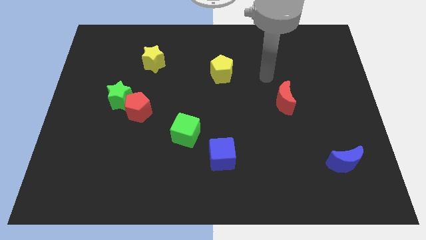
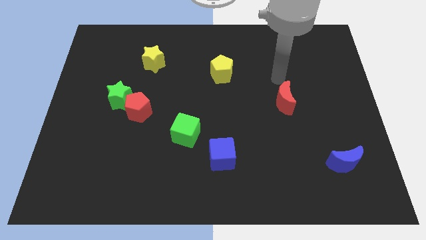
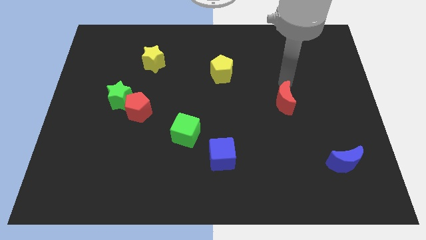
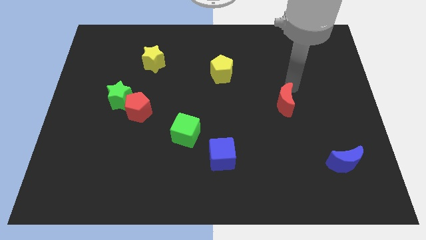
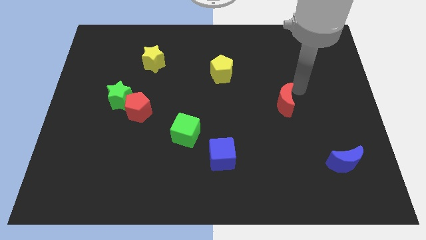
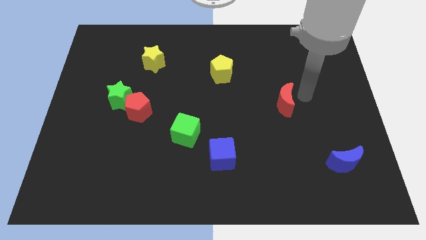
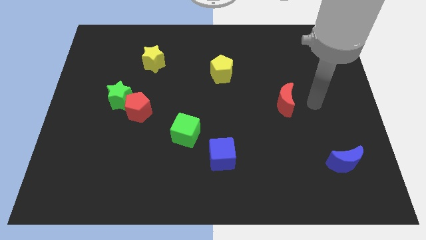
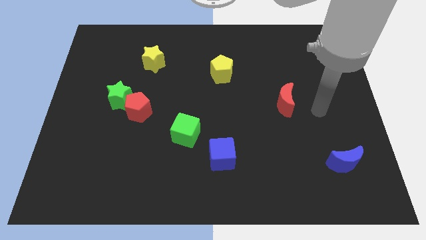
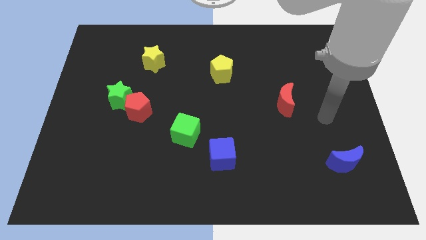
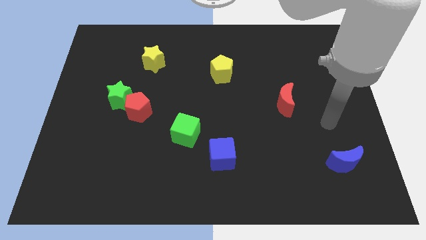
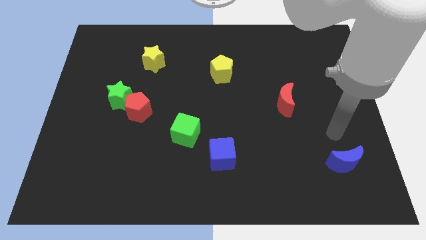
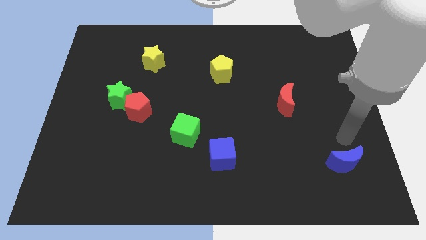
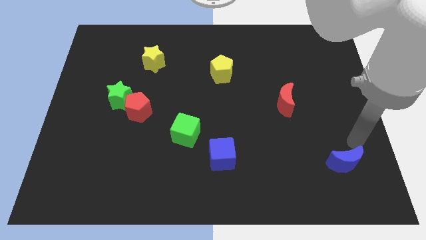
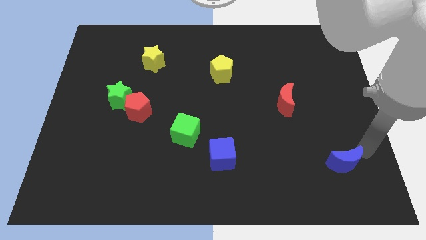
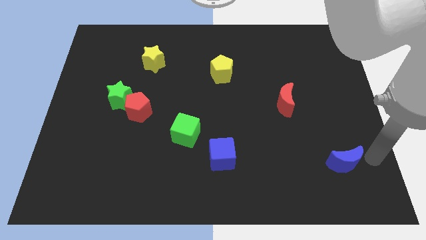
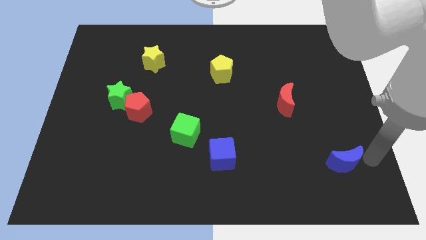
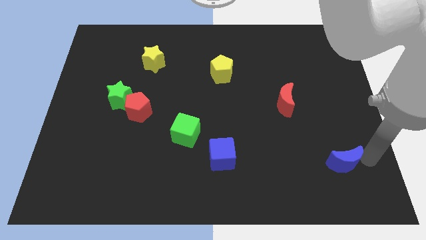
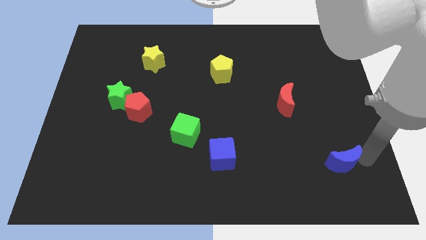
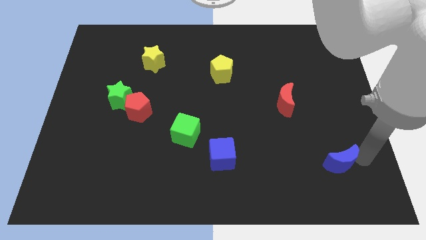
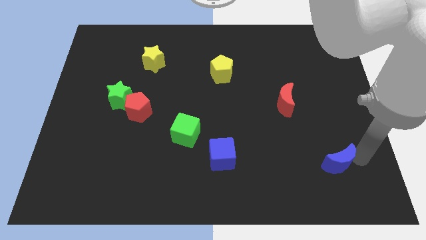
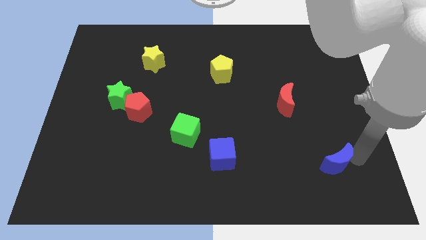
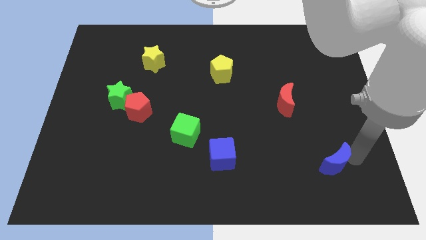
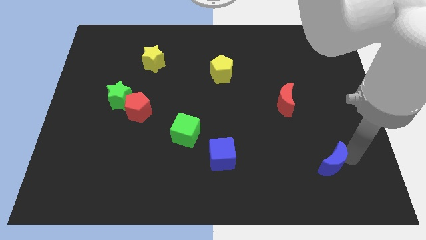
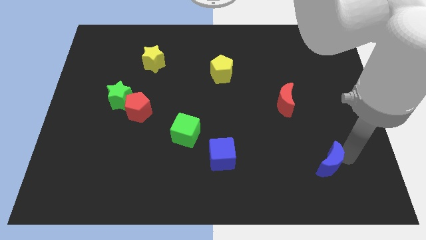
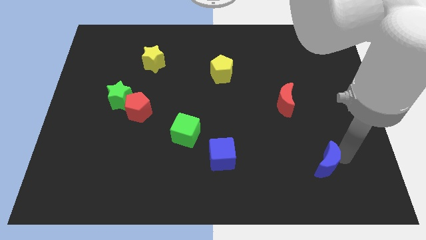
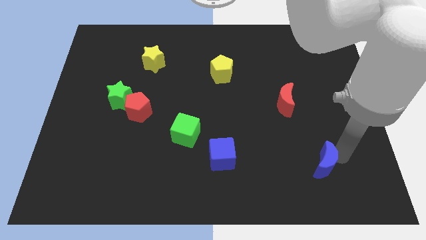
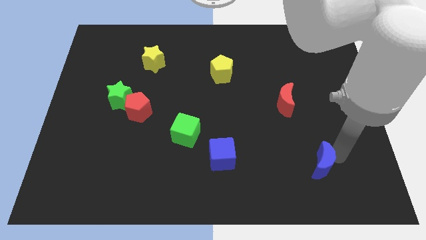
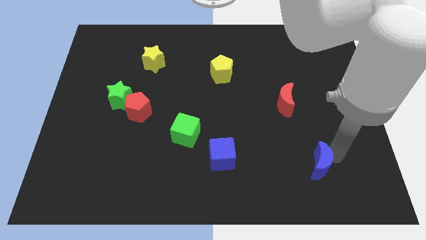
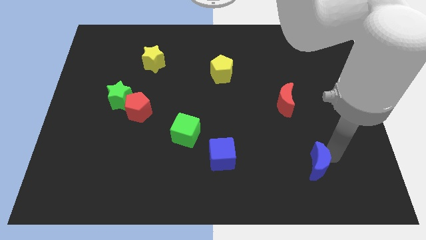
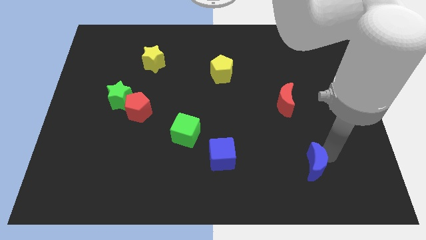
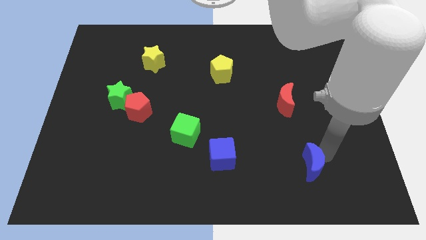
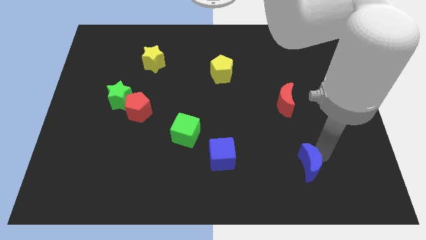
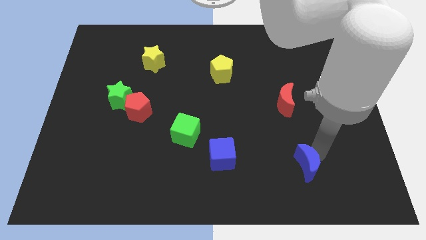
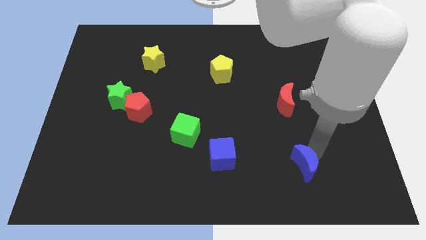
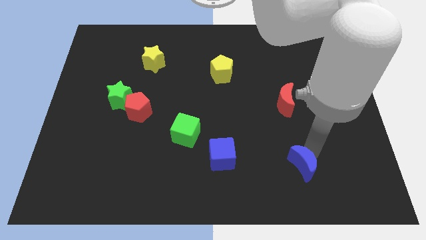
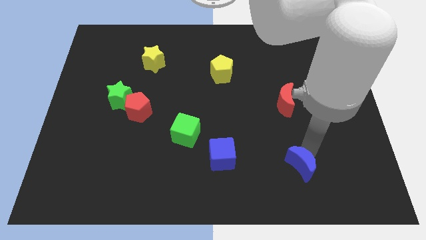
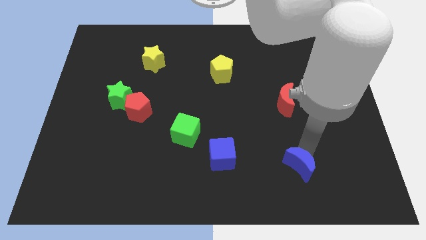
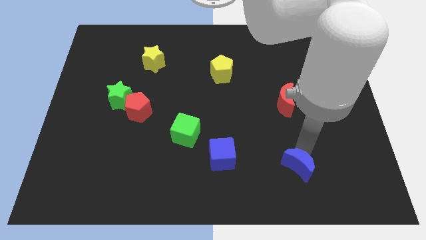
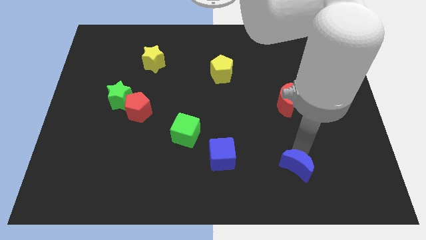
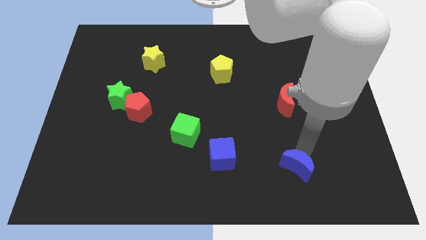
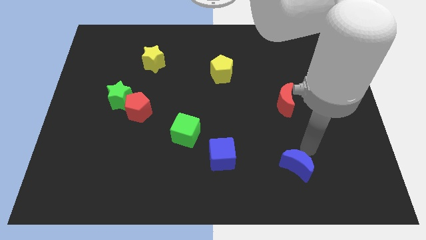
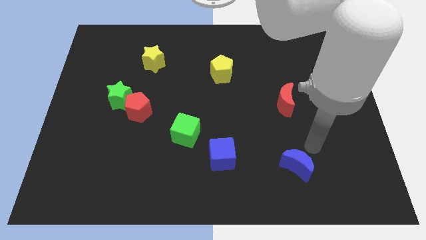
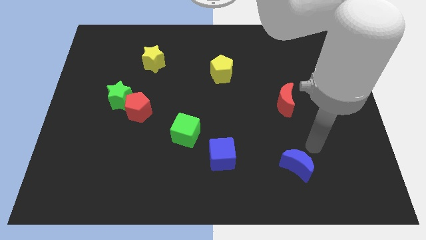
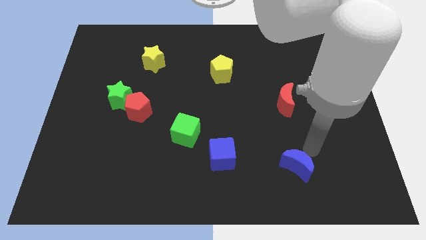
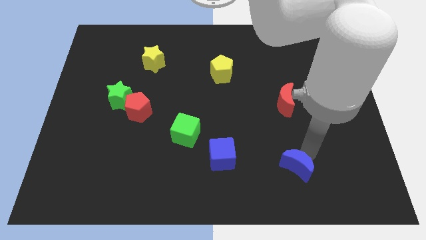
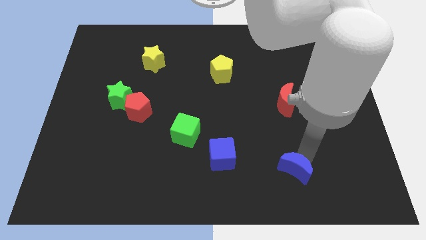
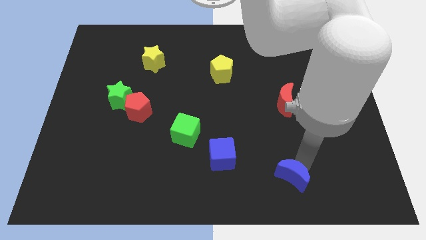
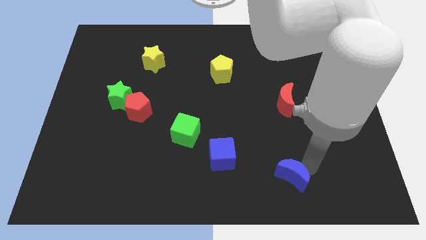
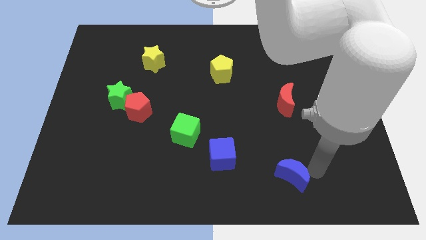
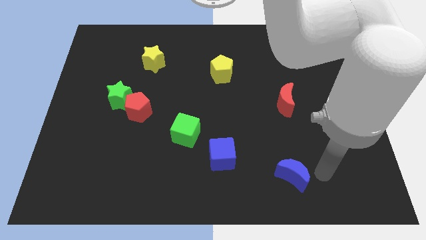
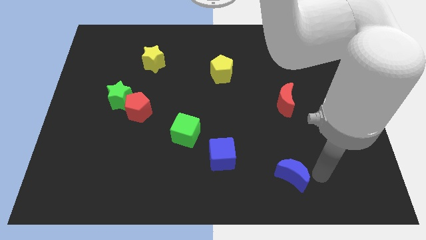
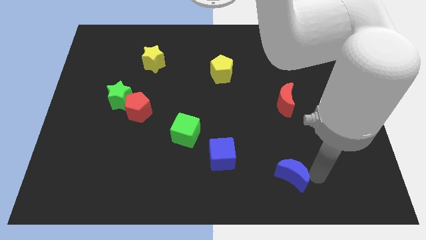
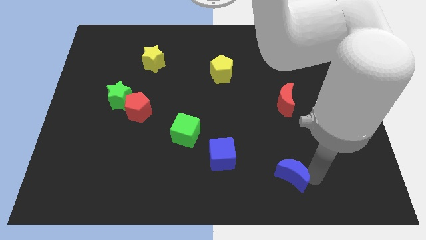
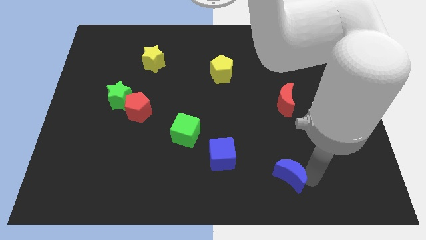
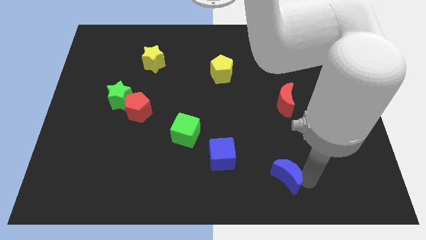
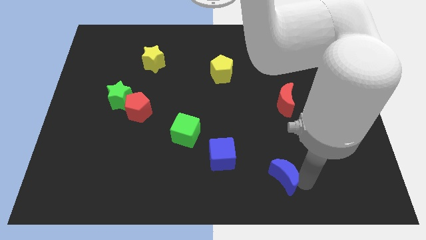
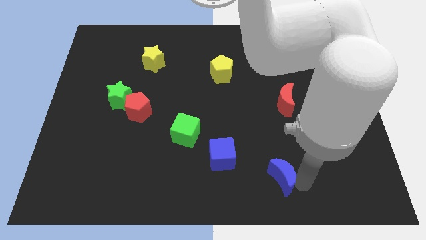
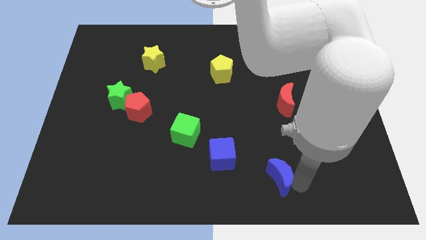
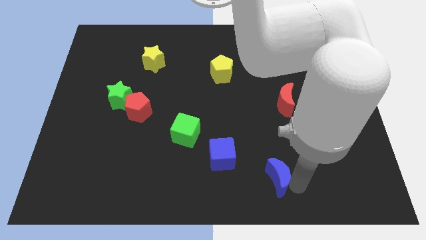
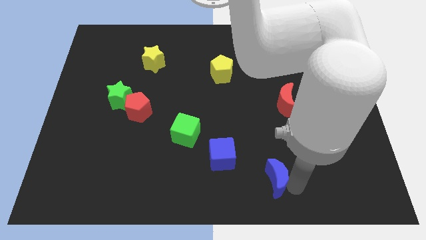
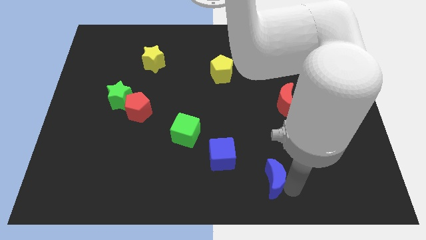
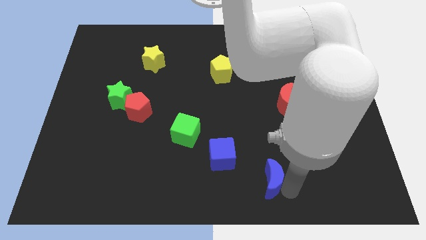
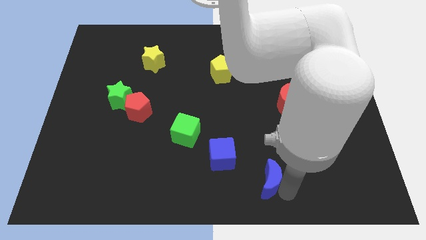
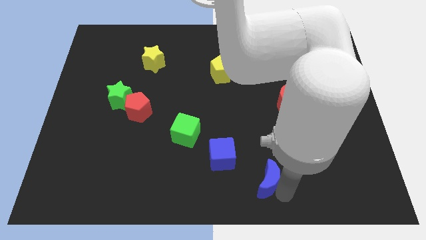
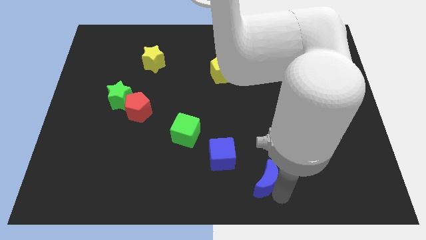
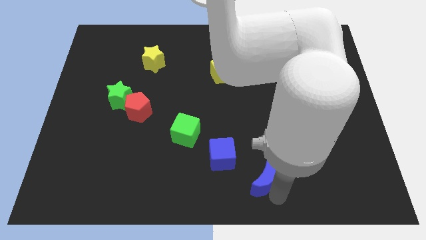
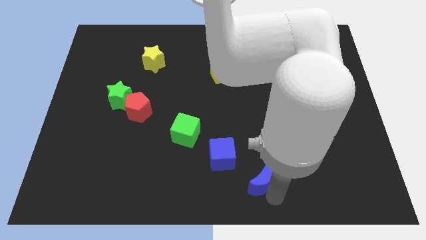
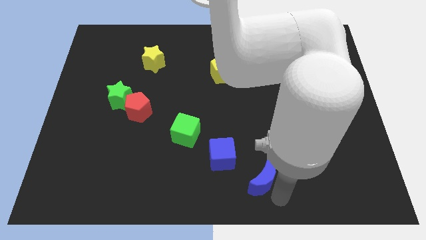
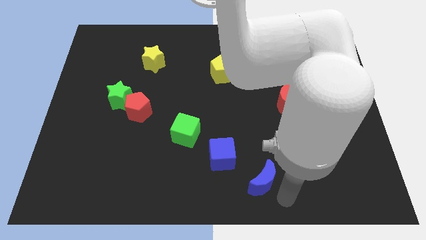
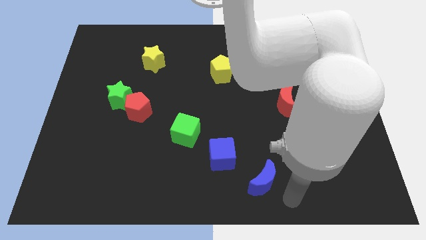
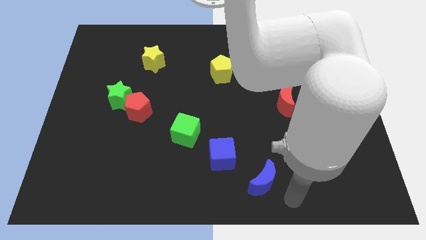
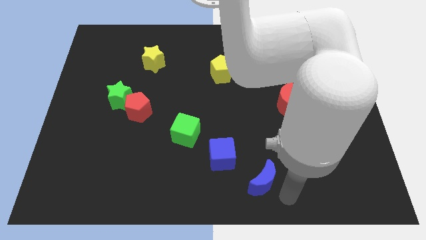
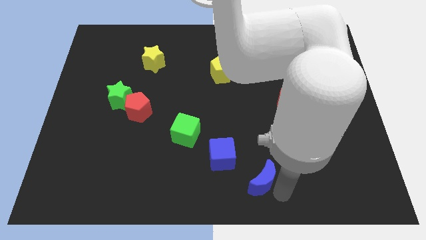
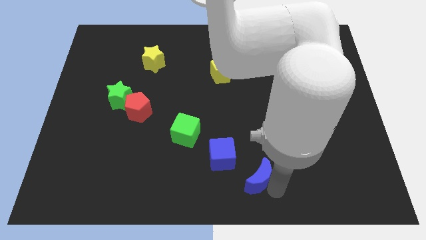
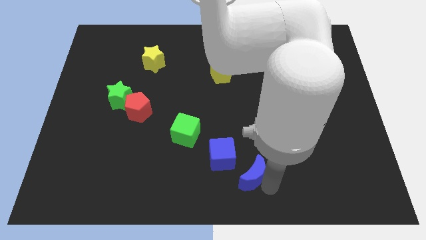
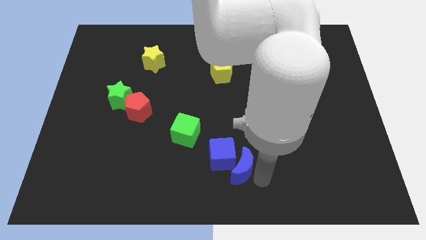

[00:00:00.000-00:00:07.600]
slide the blue moon left

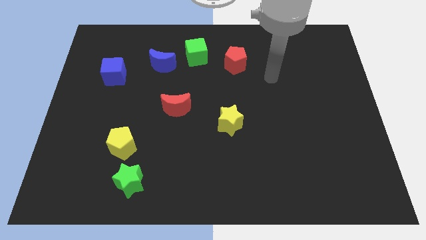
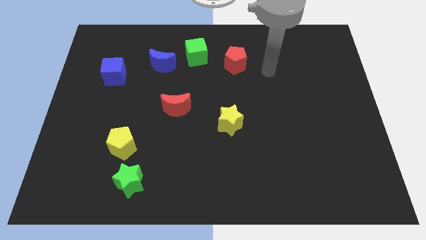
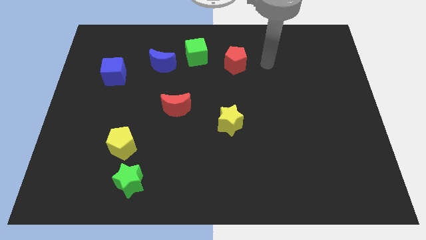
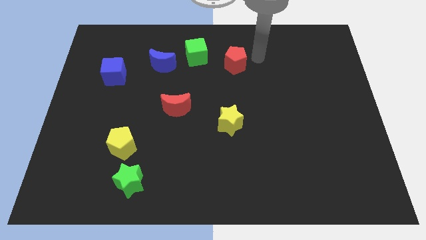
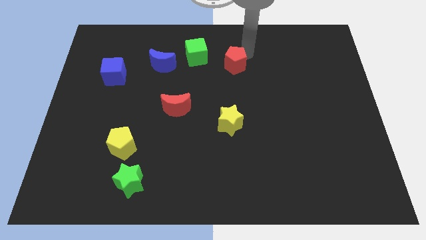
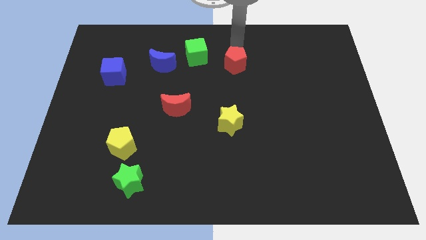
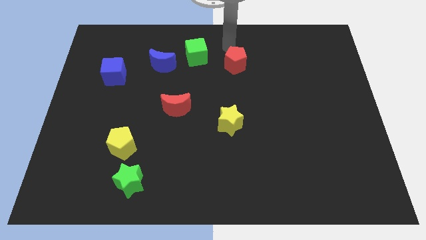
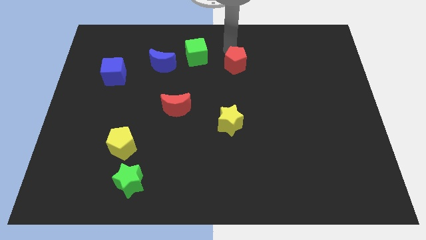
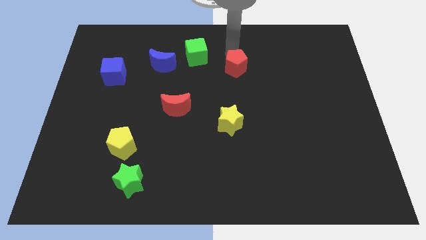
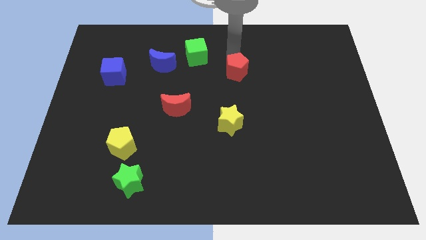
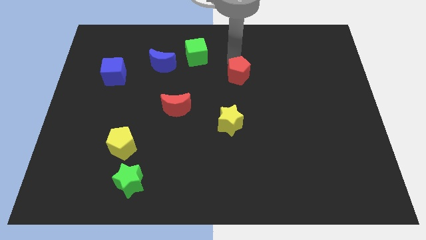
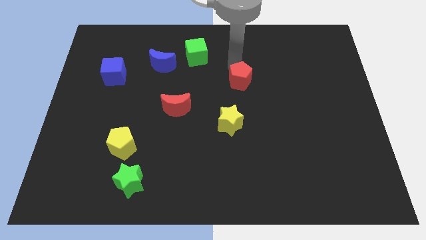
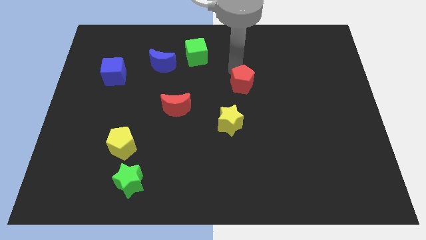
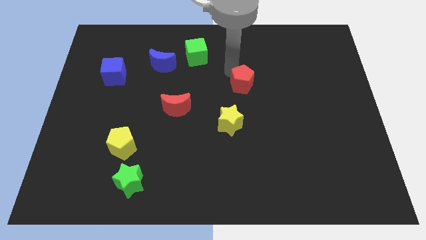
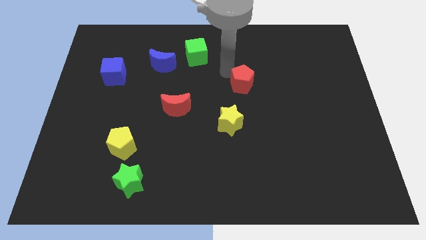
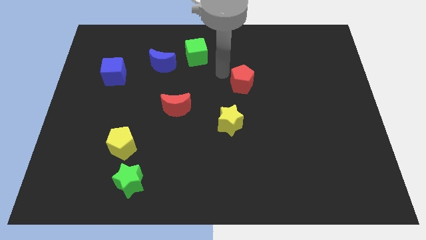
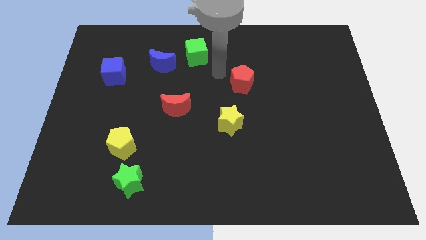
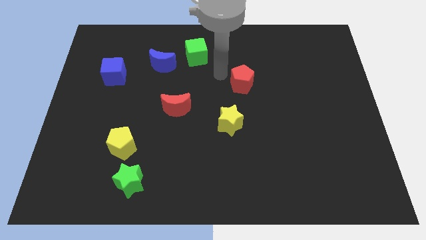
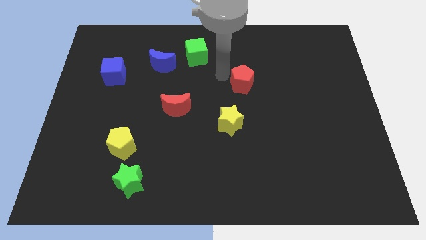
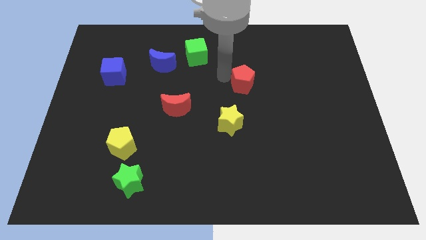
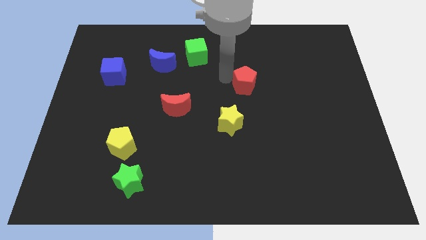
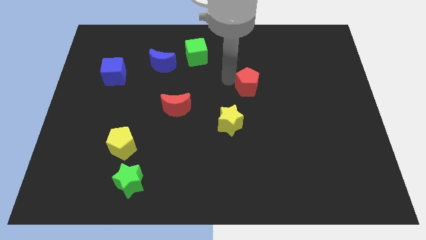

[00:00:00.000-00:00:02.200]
slightly slide the red pentagon diagonally downwards and to the right
